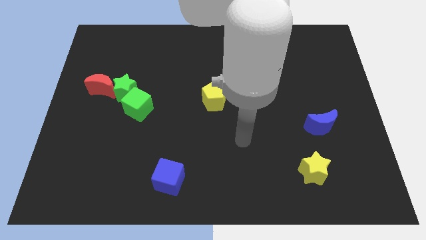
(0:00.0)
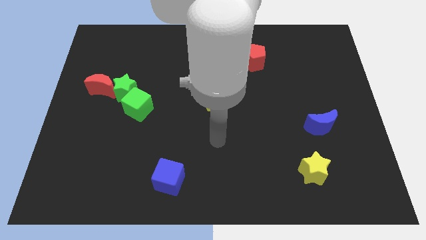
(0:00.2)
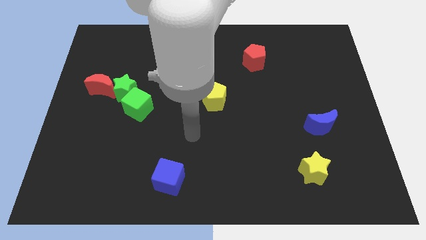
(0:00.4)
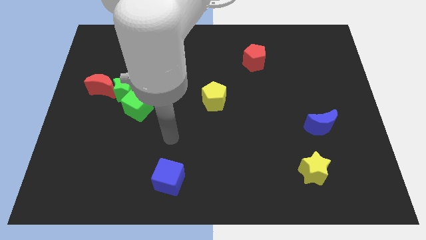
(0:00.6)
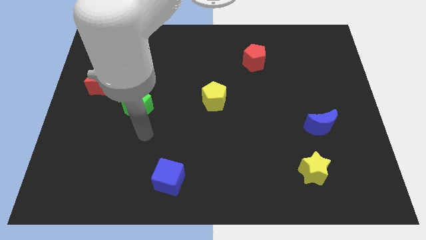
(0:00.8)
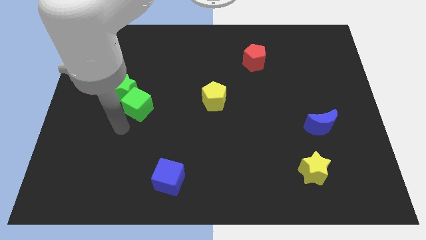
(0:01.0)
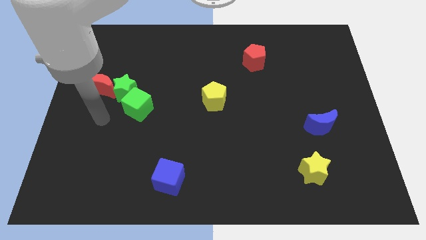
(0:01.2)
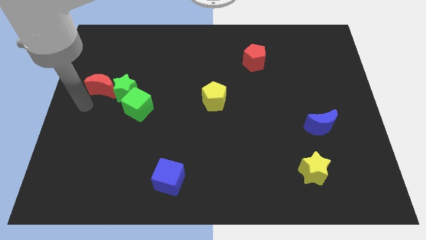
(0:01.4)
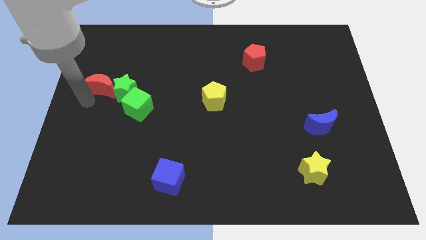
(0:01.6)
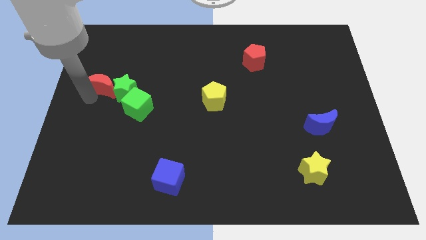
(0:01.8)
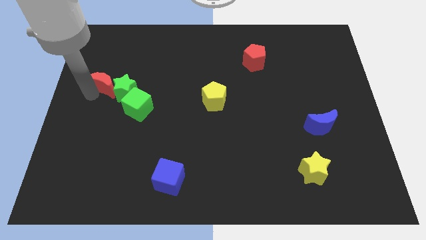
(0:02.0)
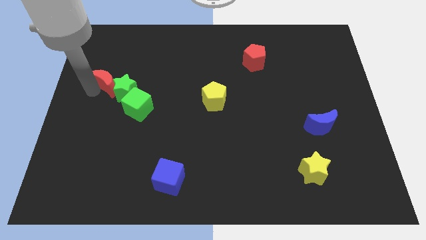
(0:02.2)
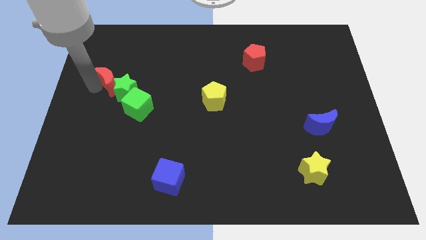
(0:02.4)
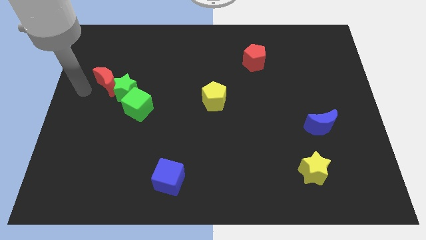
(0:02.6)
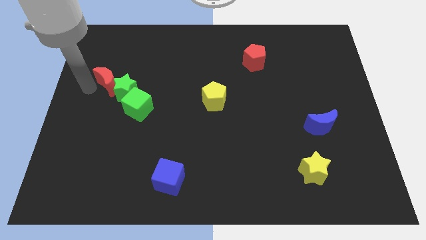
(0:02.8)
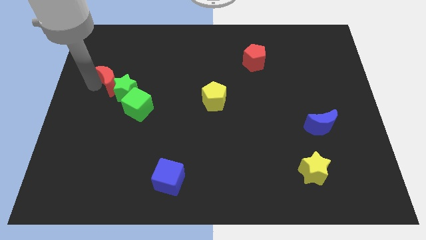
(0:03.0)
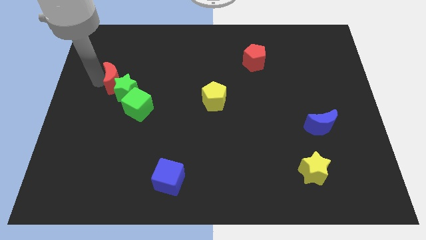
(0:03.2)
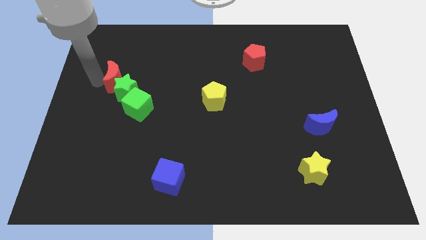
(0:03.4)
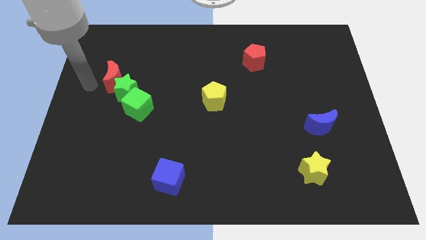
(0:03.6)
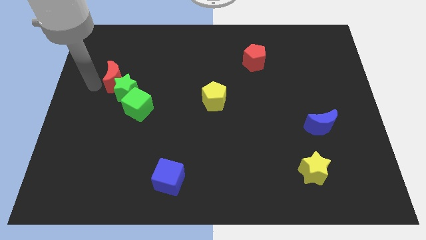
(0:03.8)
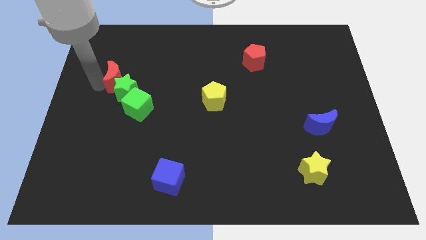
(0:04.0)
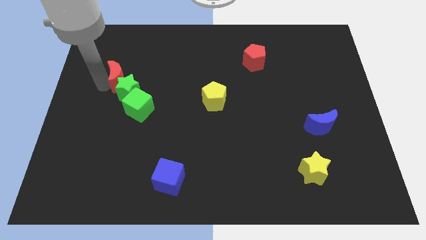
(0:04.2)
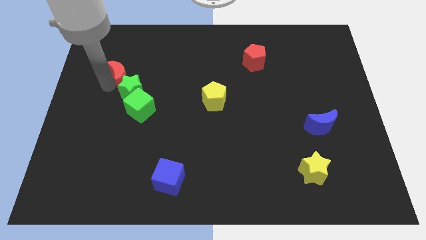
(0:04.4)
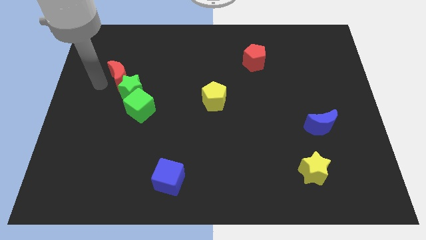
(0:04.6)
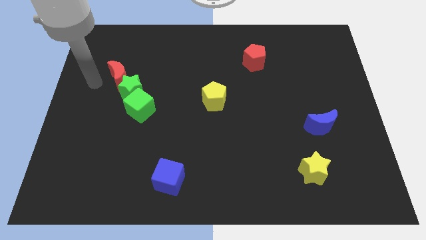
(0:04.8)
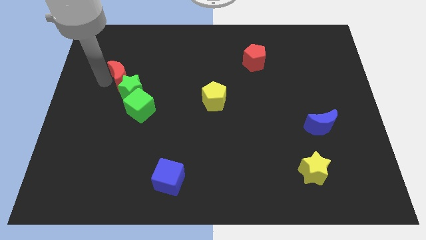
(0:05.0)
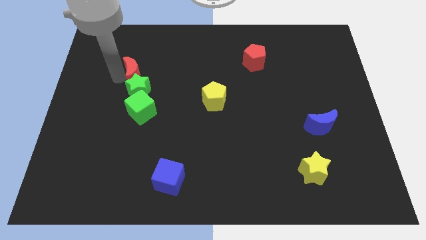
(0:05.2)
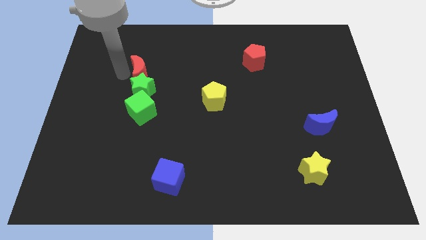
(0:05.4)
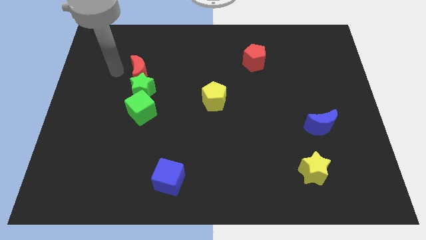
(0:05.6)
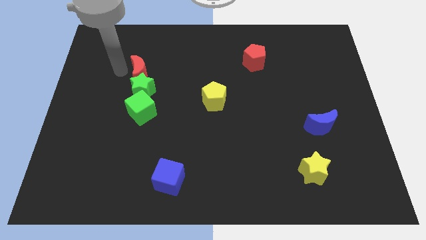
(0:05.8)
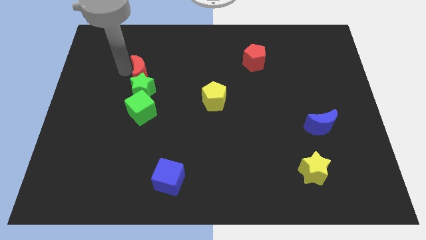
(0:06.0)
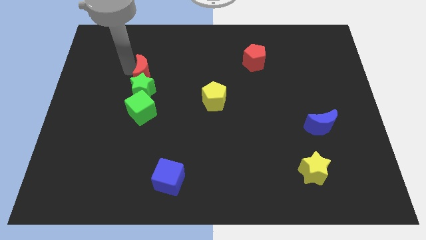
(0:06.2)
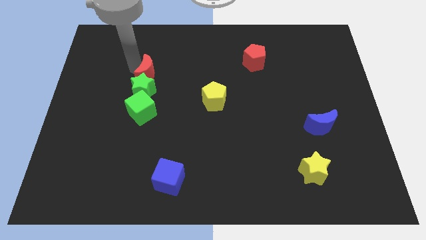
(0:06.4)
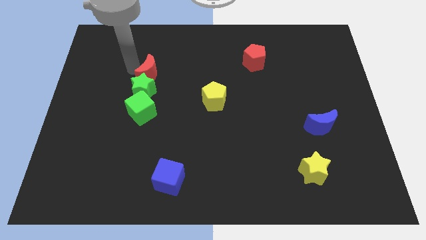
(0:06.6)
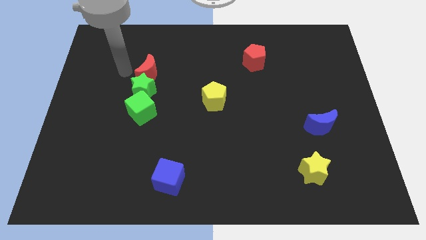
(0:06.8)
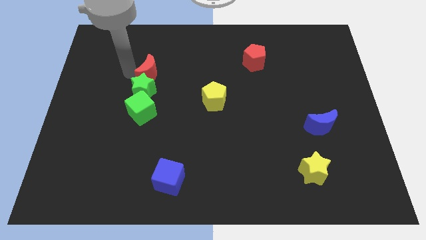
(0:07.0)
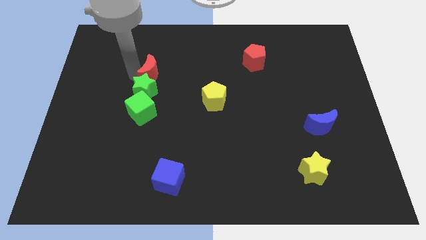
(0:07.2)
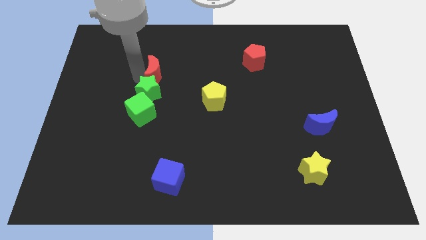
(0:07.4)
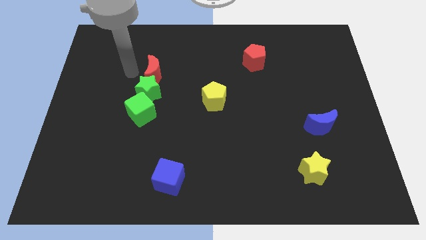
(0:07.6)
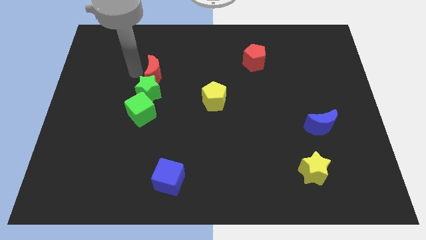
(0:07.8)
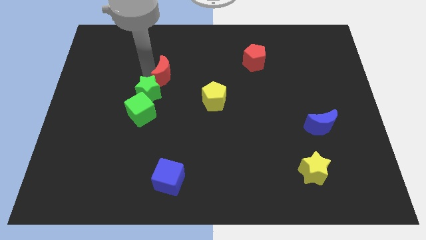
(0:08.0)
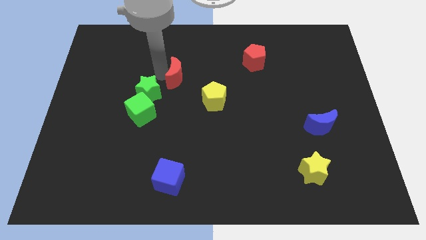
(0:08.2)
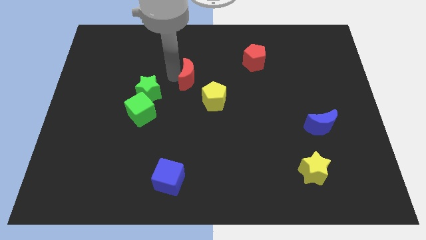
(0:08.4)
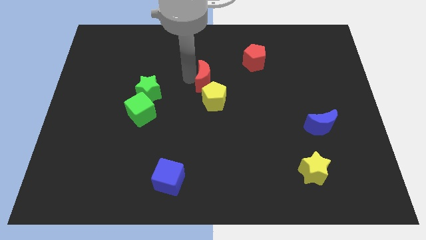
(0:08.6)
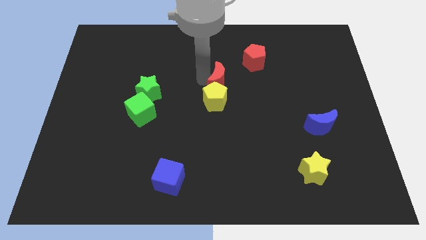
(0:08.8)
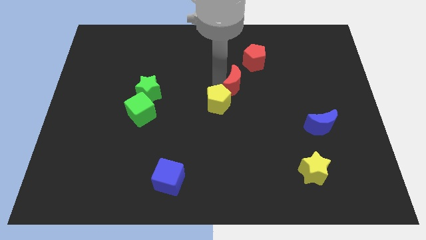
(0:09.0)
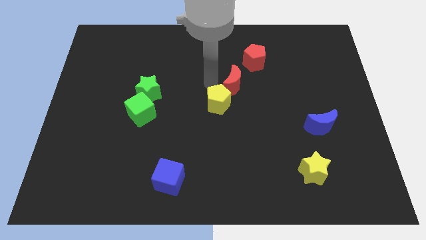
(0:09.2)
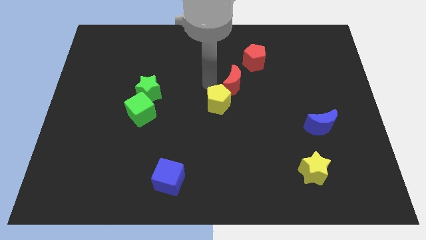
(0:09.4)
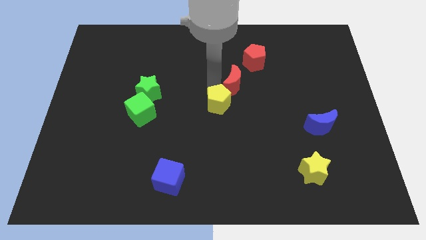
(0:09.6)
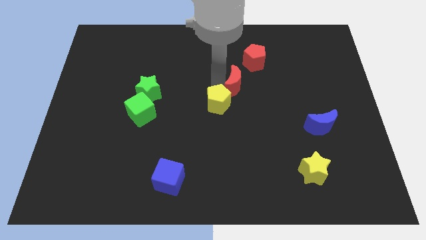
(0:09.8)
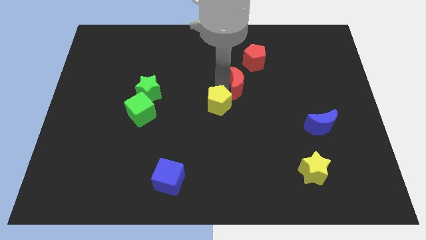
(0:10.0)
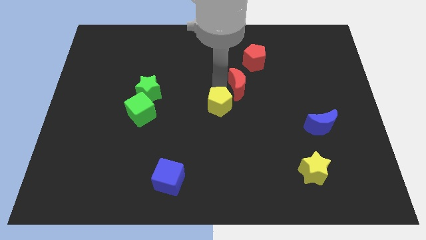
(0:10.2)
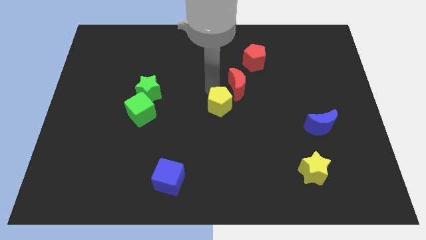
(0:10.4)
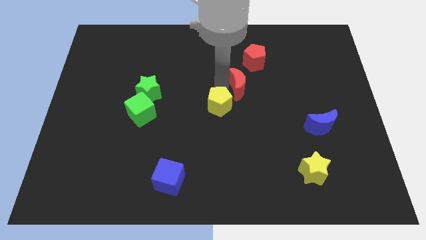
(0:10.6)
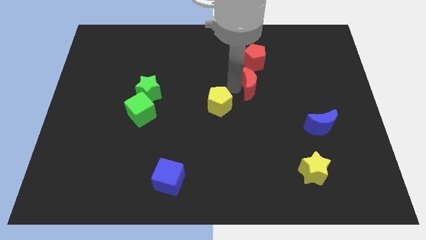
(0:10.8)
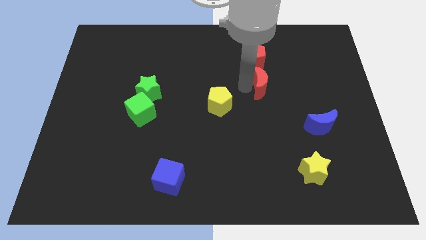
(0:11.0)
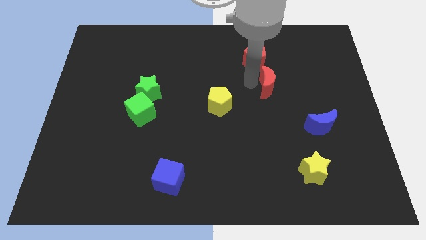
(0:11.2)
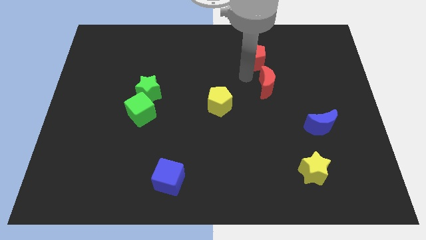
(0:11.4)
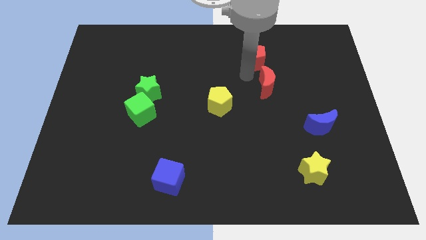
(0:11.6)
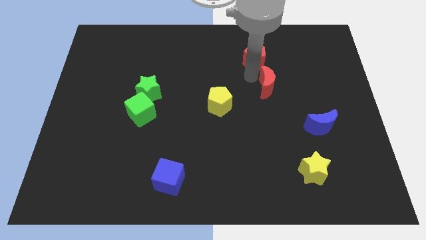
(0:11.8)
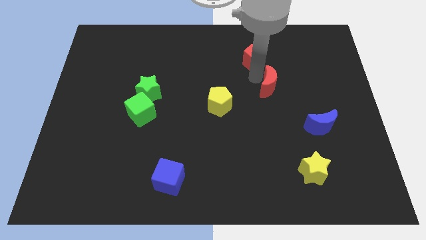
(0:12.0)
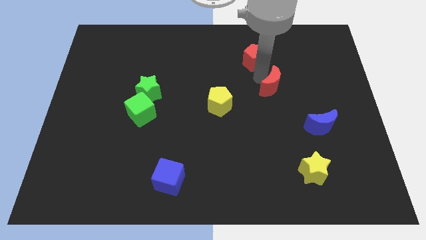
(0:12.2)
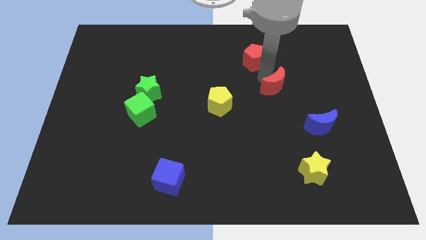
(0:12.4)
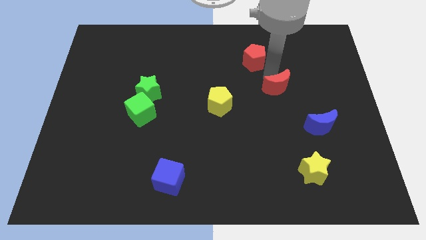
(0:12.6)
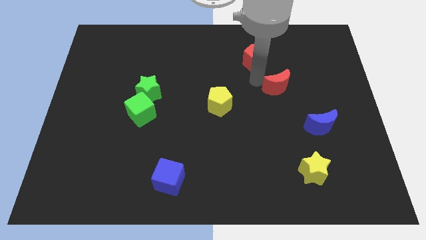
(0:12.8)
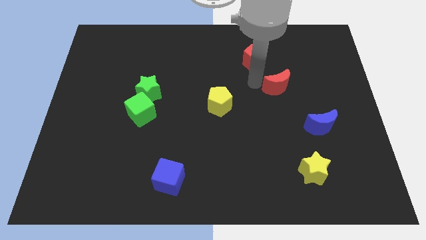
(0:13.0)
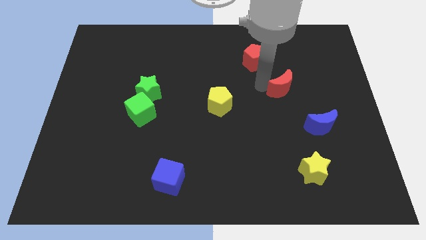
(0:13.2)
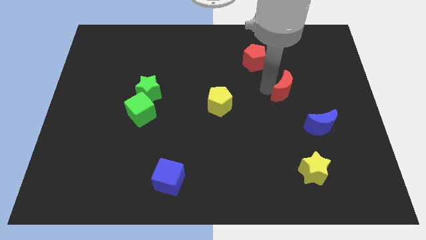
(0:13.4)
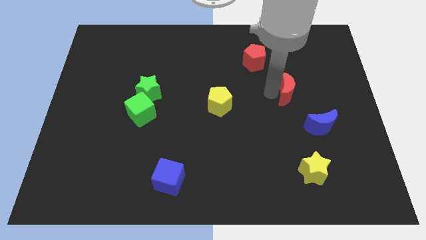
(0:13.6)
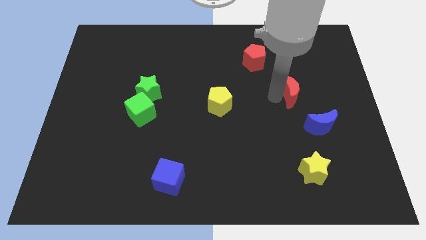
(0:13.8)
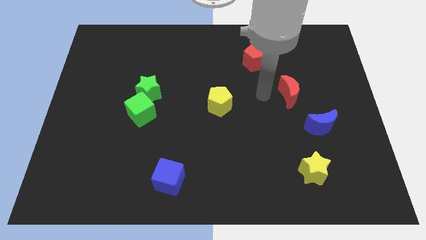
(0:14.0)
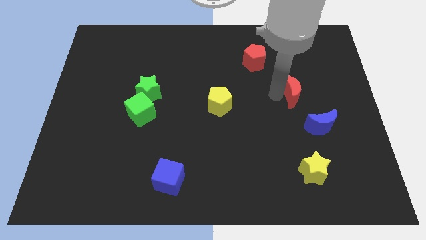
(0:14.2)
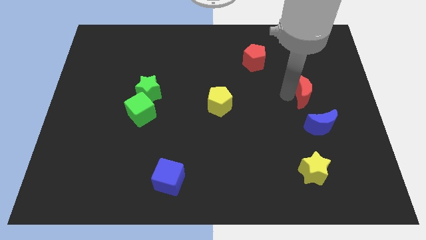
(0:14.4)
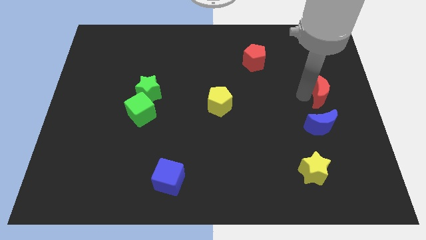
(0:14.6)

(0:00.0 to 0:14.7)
move the red moon to the right side

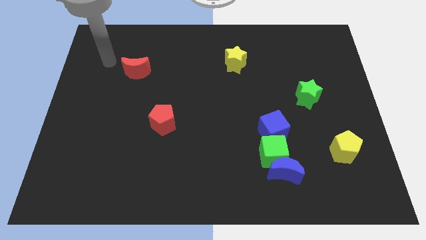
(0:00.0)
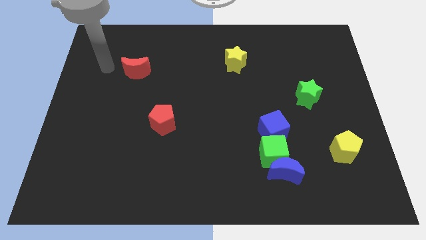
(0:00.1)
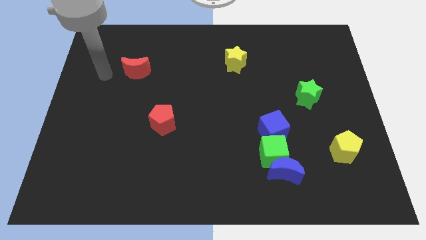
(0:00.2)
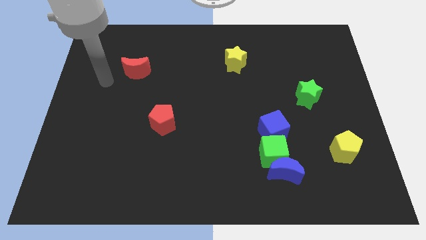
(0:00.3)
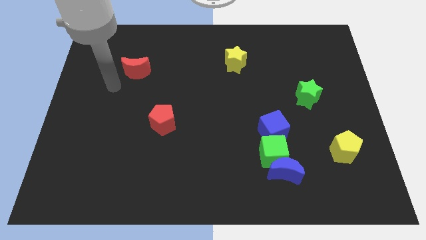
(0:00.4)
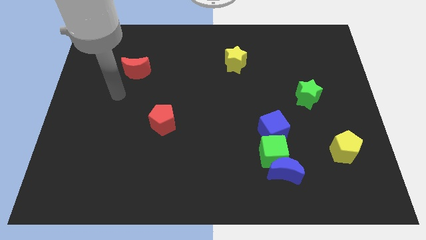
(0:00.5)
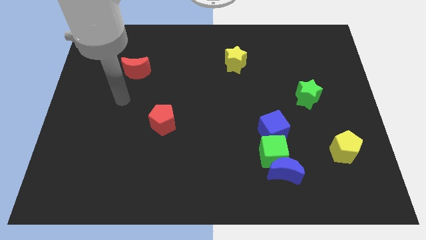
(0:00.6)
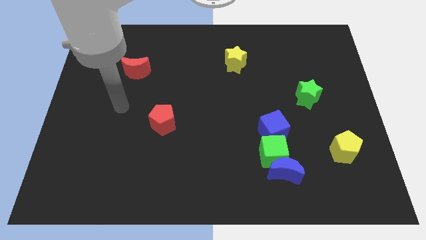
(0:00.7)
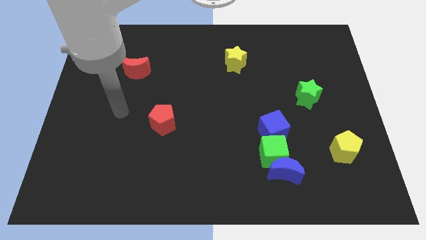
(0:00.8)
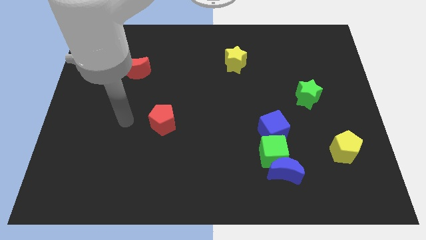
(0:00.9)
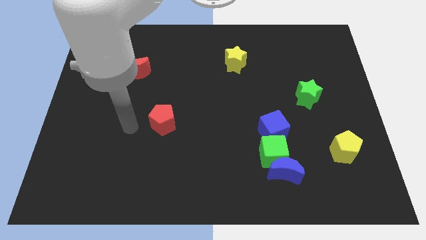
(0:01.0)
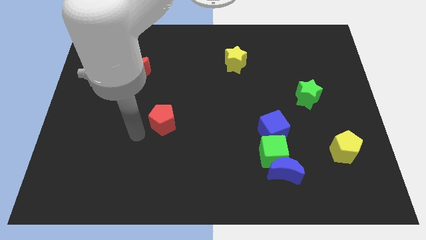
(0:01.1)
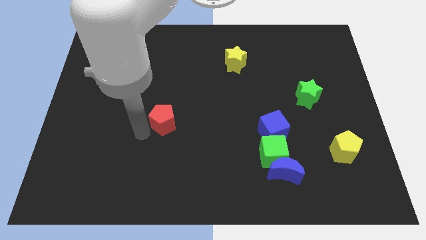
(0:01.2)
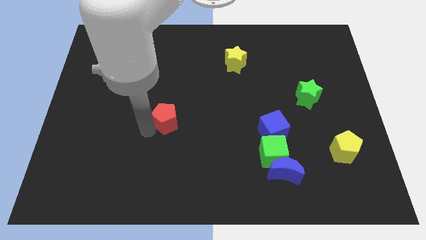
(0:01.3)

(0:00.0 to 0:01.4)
slide the red pentagon to the middle
